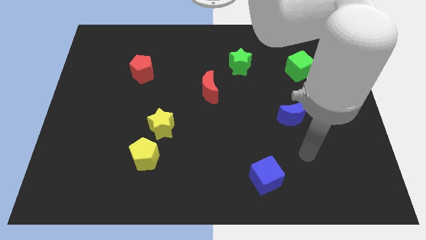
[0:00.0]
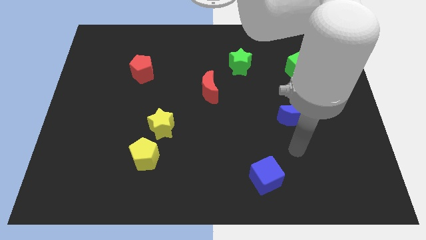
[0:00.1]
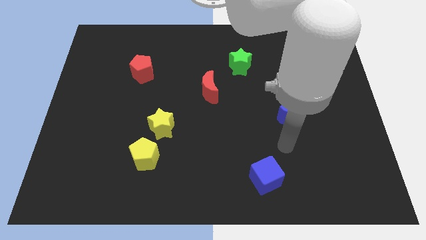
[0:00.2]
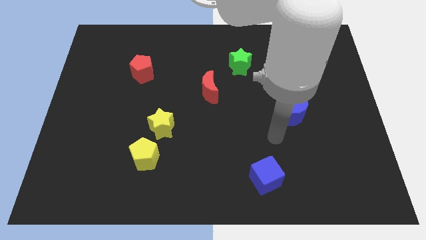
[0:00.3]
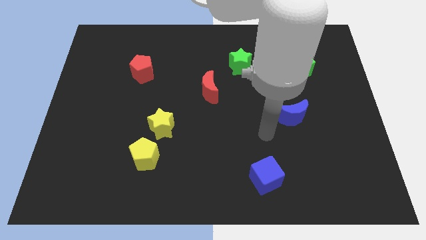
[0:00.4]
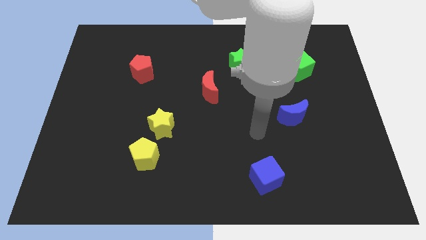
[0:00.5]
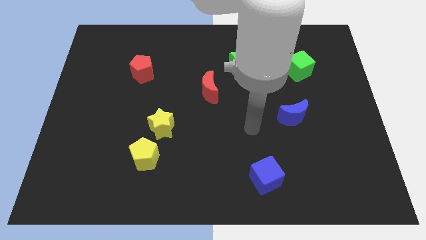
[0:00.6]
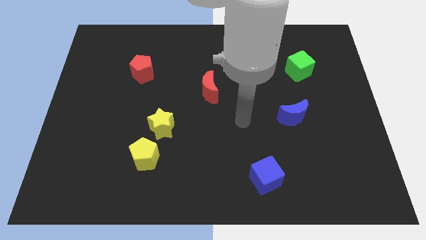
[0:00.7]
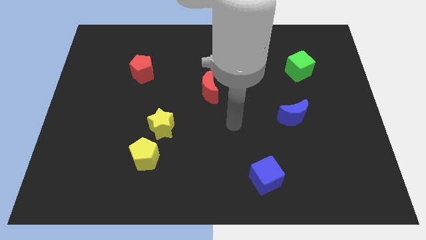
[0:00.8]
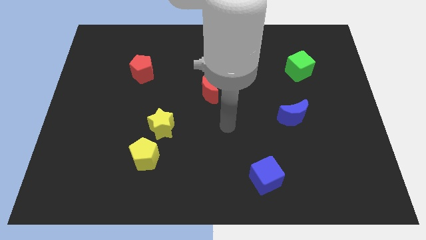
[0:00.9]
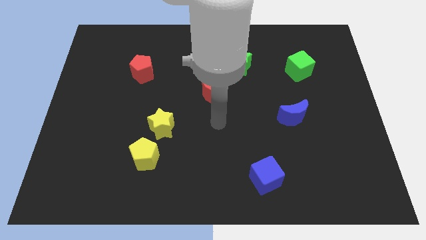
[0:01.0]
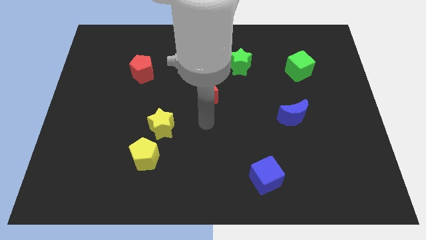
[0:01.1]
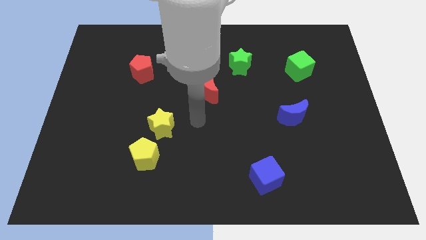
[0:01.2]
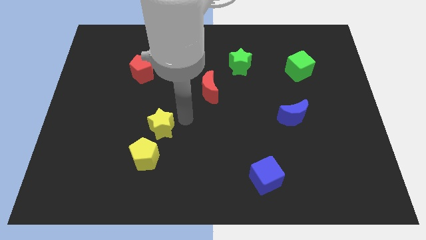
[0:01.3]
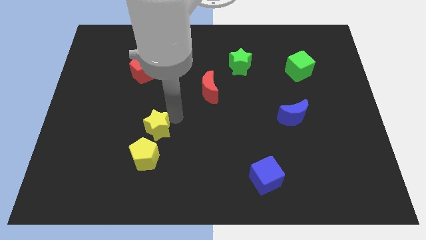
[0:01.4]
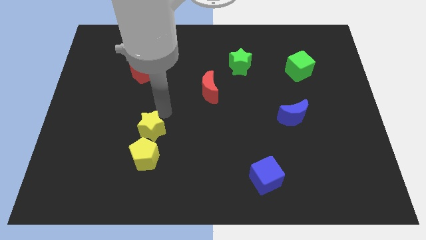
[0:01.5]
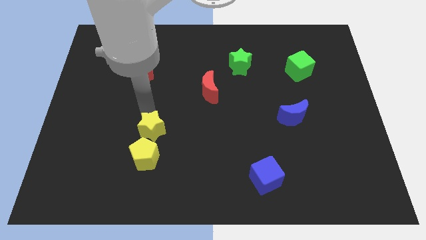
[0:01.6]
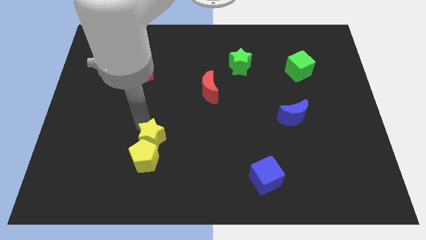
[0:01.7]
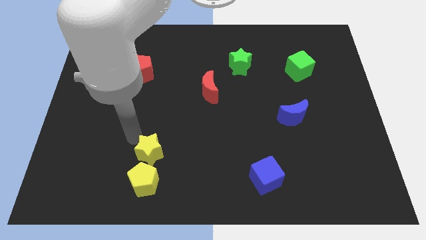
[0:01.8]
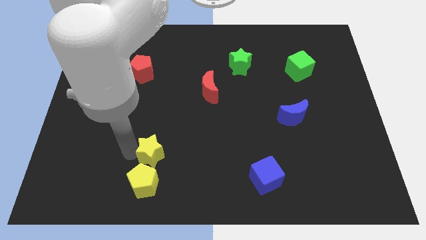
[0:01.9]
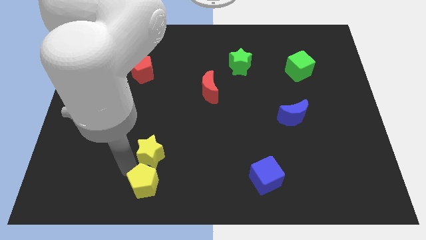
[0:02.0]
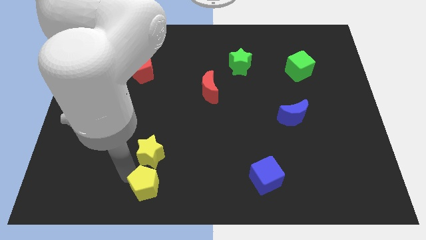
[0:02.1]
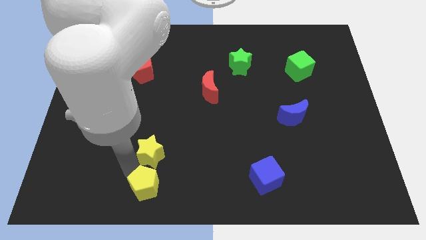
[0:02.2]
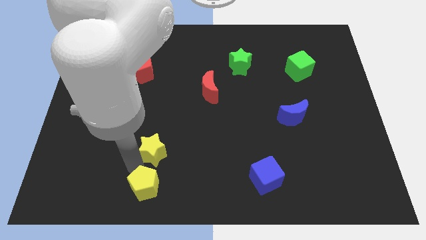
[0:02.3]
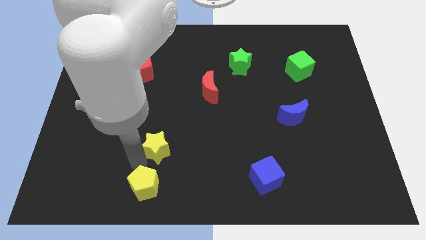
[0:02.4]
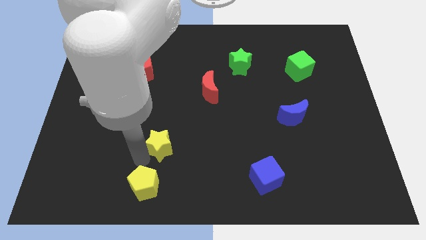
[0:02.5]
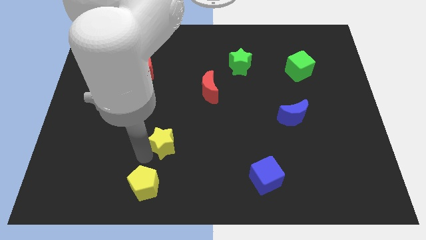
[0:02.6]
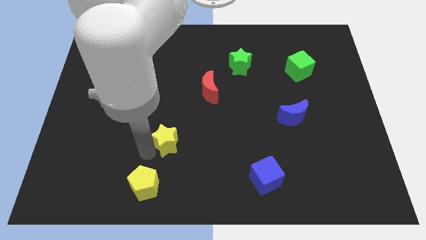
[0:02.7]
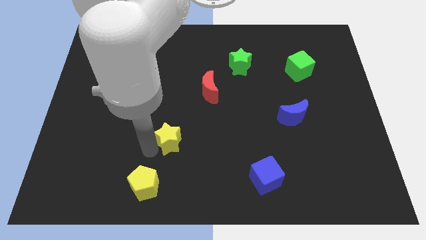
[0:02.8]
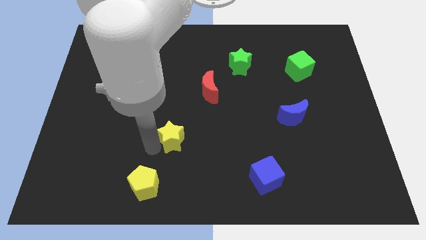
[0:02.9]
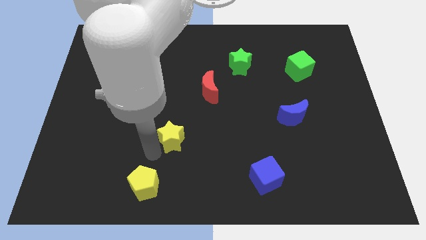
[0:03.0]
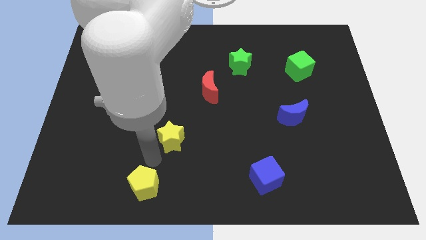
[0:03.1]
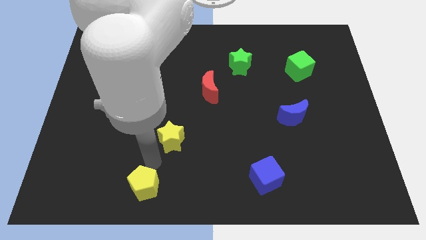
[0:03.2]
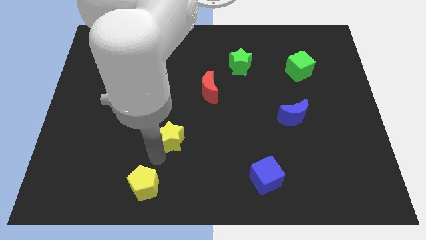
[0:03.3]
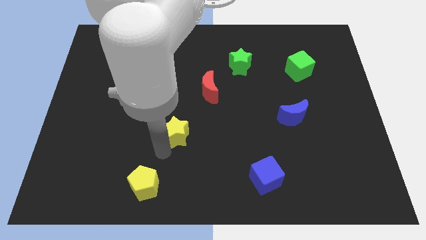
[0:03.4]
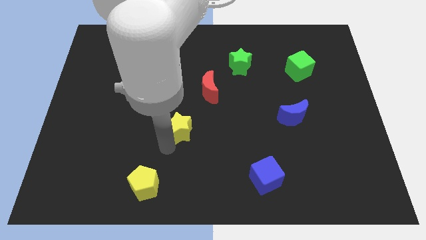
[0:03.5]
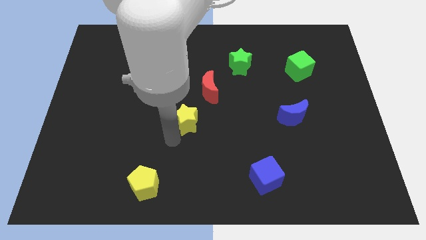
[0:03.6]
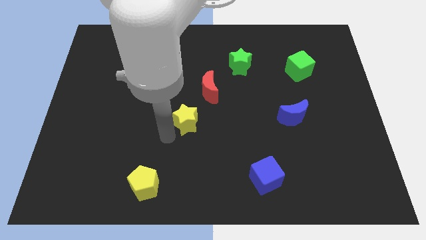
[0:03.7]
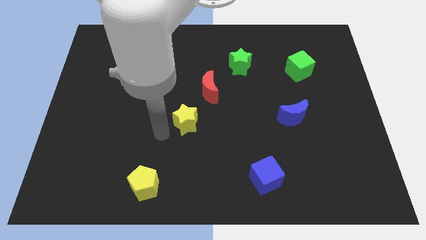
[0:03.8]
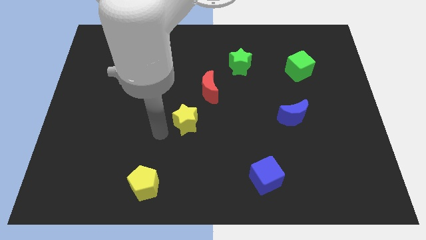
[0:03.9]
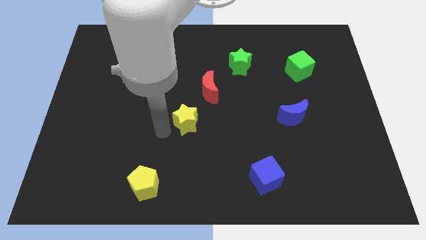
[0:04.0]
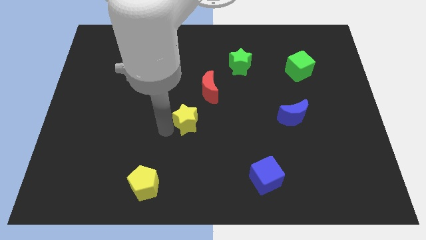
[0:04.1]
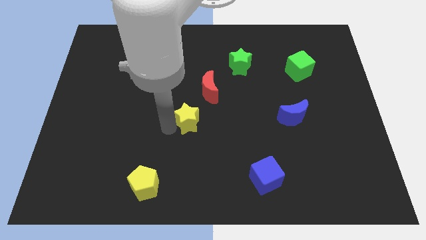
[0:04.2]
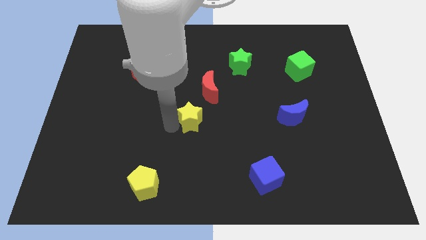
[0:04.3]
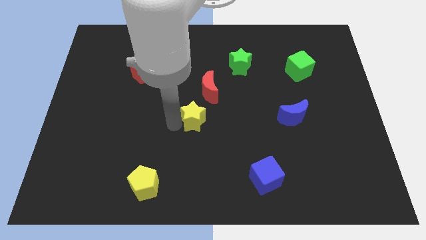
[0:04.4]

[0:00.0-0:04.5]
slide the yellow star right a little

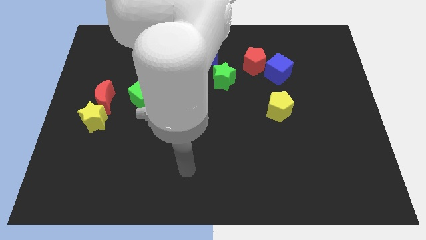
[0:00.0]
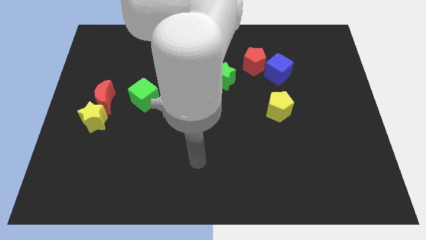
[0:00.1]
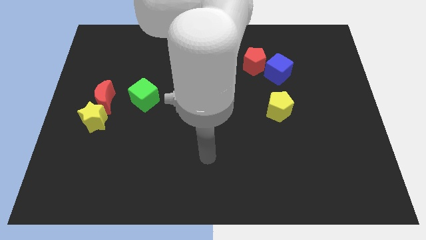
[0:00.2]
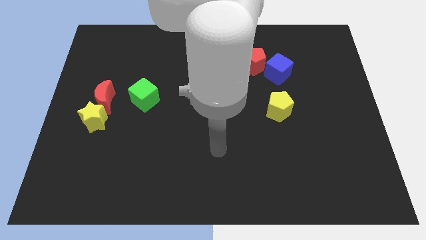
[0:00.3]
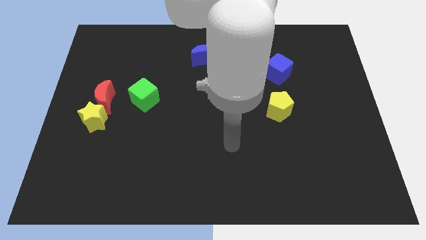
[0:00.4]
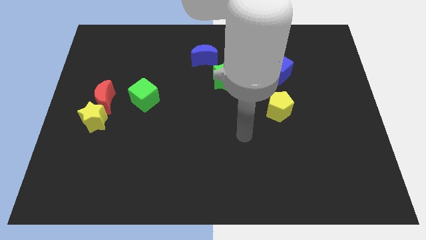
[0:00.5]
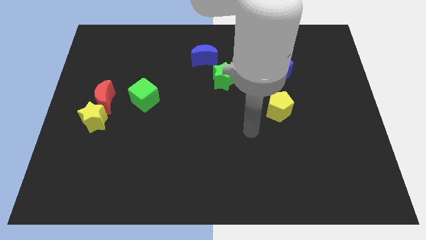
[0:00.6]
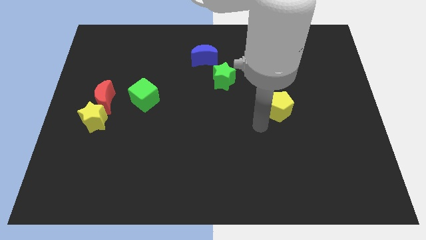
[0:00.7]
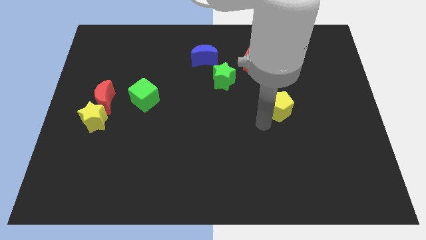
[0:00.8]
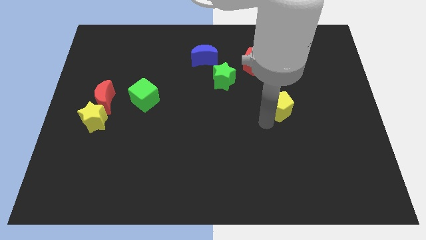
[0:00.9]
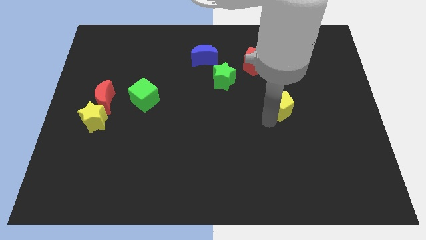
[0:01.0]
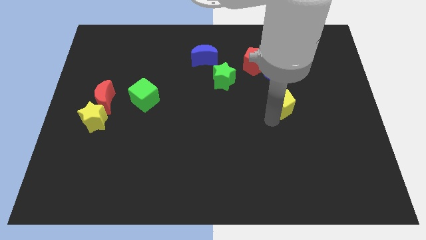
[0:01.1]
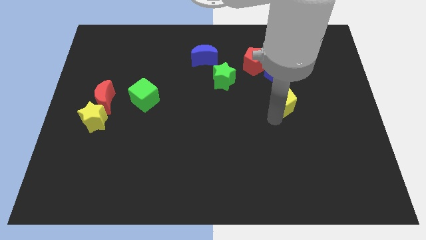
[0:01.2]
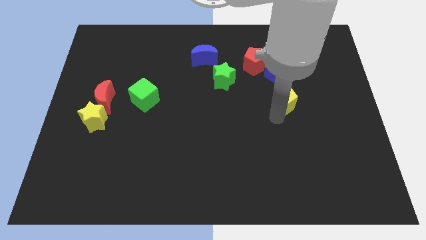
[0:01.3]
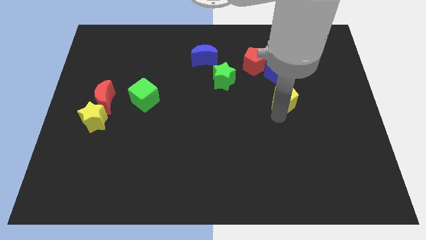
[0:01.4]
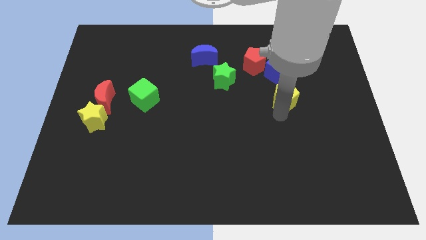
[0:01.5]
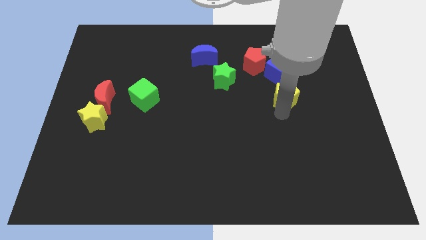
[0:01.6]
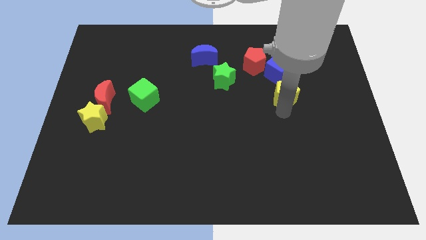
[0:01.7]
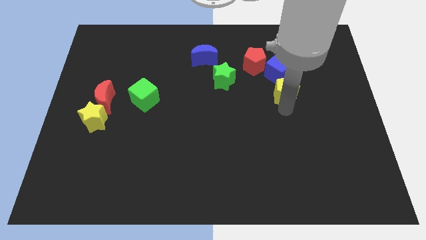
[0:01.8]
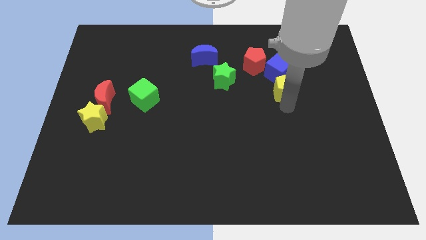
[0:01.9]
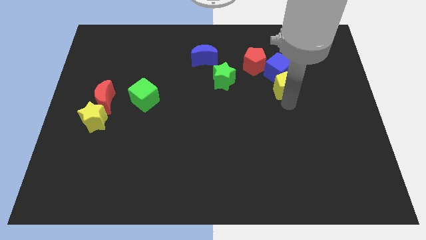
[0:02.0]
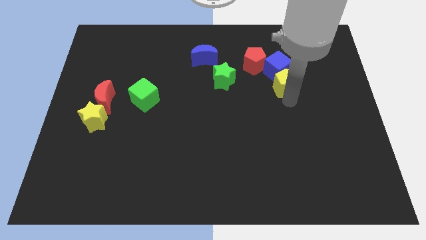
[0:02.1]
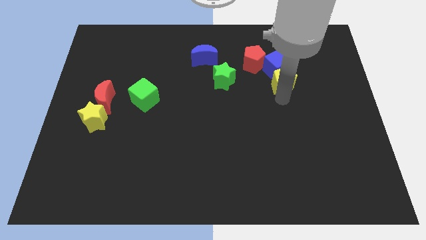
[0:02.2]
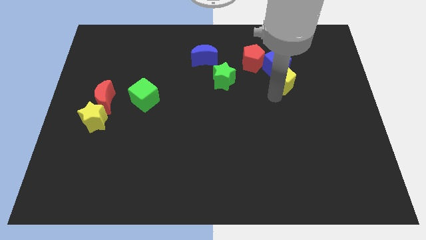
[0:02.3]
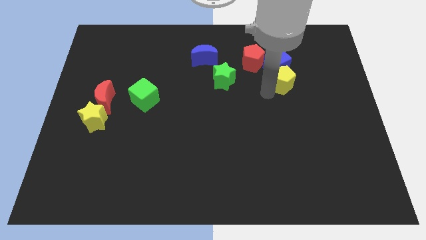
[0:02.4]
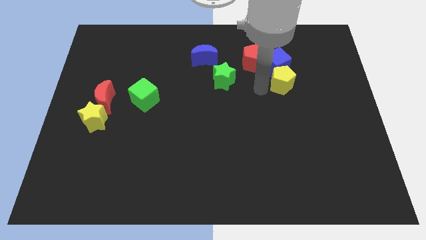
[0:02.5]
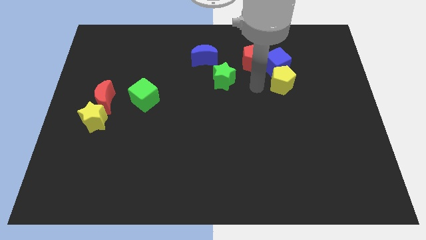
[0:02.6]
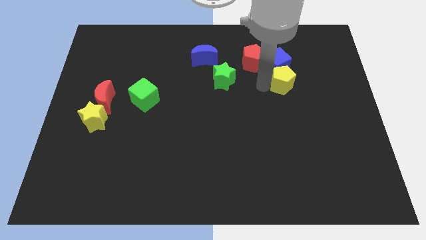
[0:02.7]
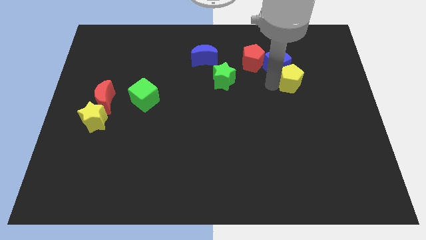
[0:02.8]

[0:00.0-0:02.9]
slightly slide the yellow pentagon diagonally upwards and to the right

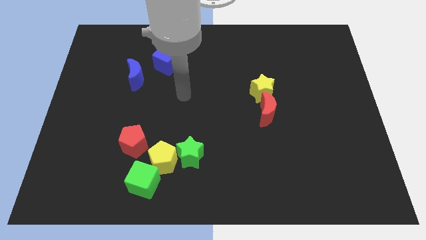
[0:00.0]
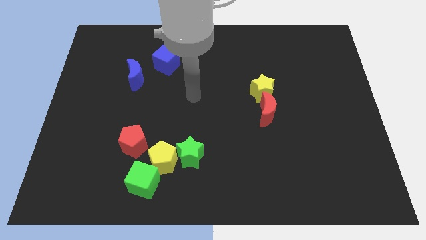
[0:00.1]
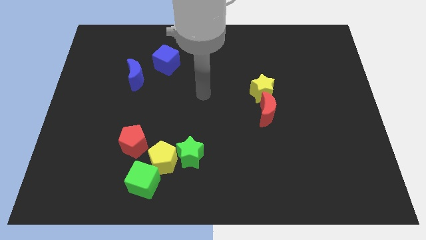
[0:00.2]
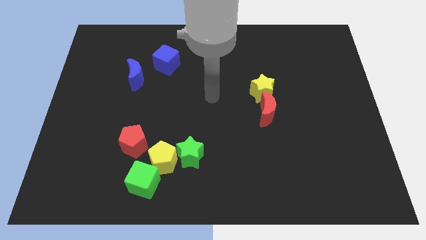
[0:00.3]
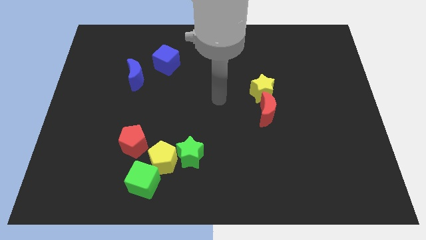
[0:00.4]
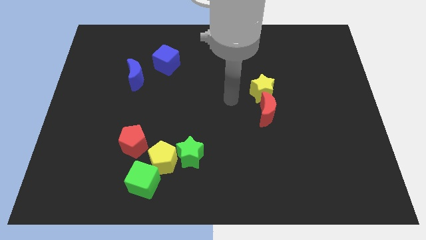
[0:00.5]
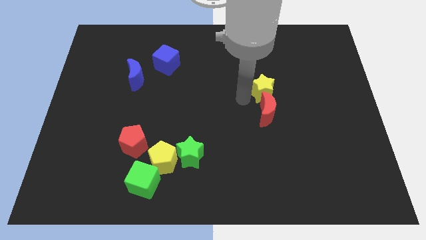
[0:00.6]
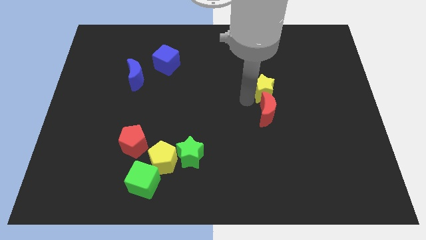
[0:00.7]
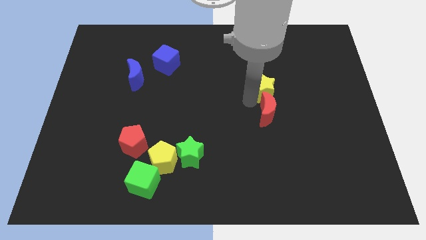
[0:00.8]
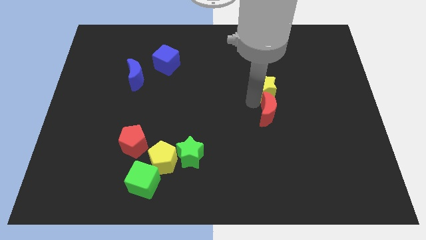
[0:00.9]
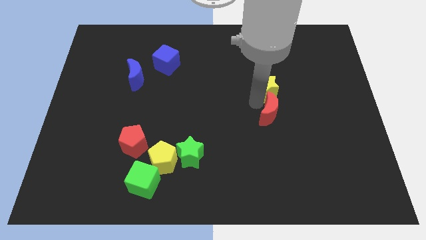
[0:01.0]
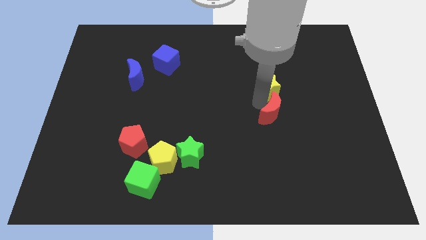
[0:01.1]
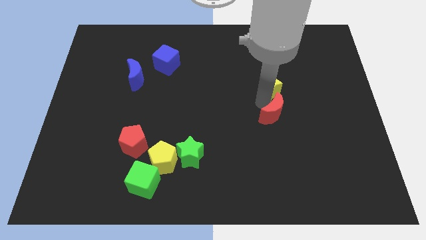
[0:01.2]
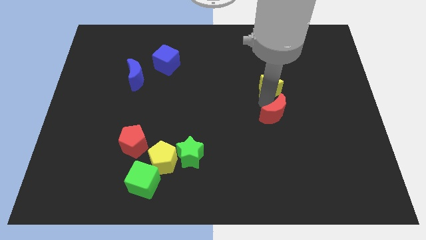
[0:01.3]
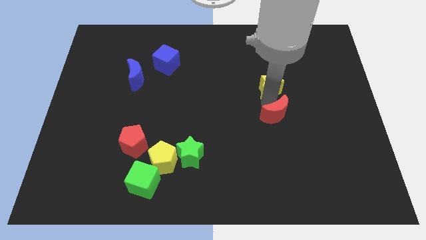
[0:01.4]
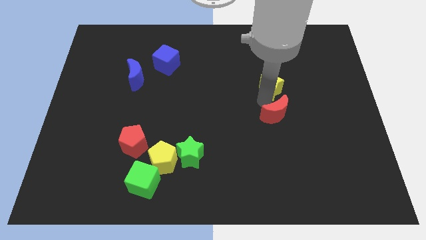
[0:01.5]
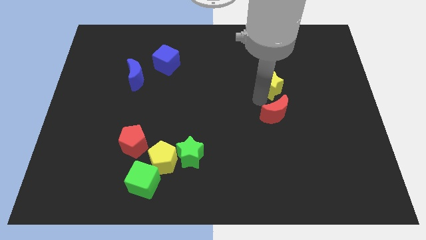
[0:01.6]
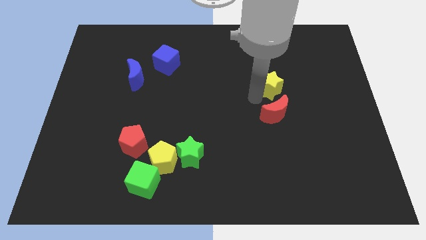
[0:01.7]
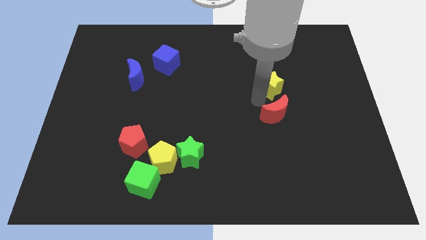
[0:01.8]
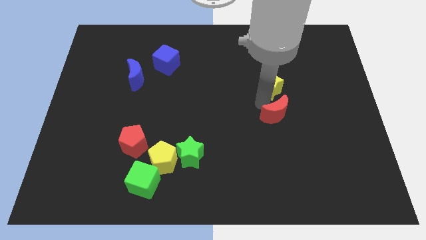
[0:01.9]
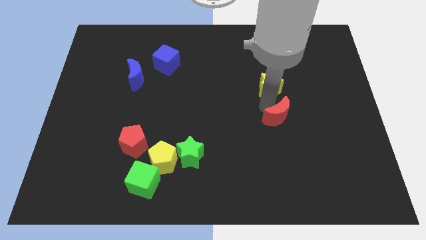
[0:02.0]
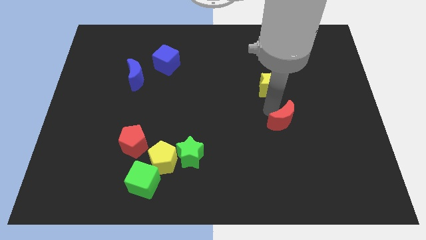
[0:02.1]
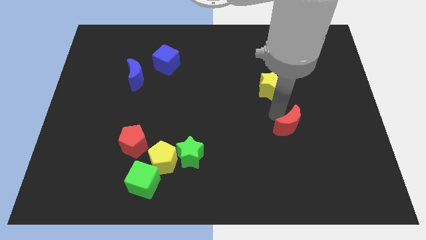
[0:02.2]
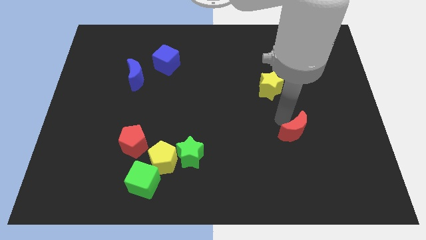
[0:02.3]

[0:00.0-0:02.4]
slightly push the red moon down and right
